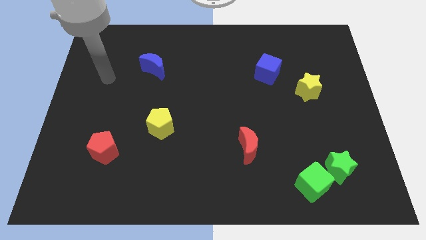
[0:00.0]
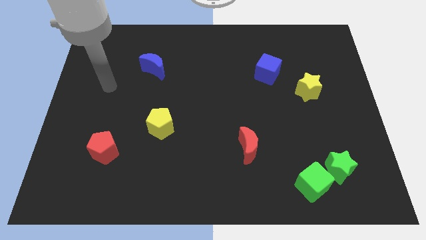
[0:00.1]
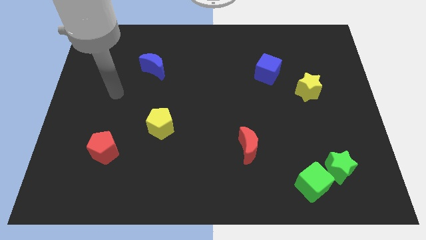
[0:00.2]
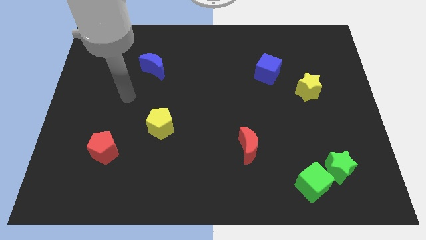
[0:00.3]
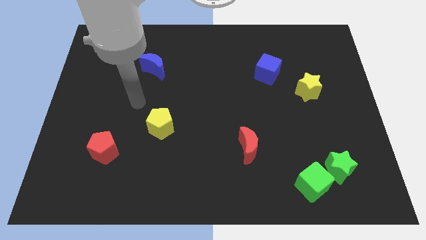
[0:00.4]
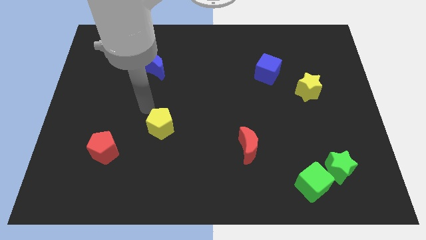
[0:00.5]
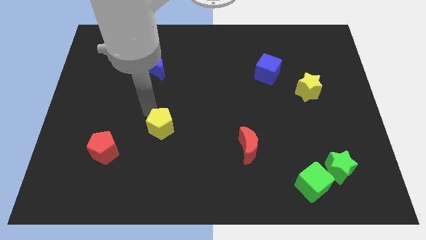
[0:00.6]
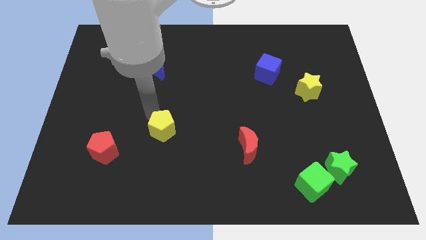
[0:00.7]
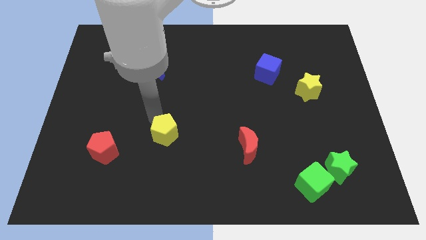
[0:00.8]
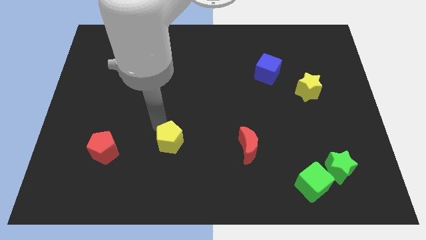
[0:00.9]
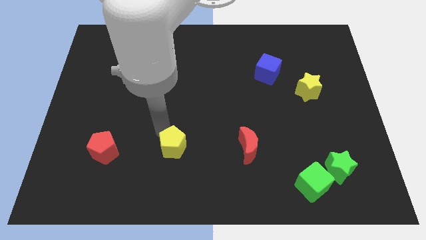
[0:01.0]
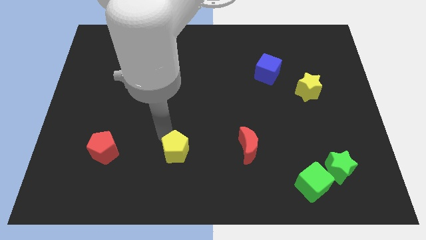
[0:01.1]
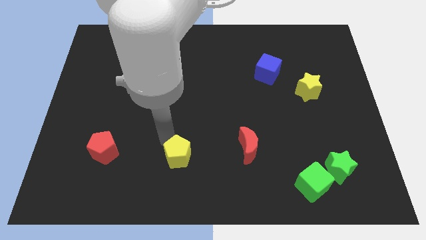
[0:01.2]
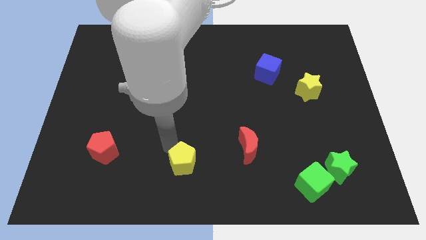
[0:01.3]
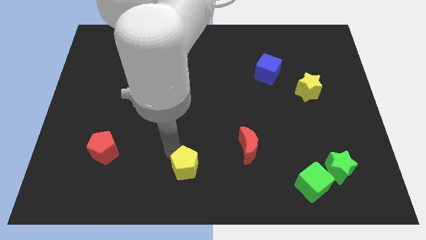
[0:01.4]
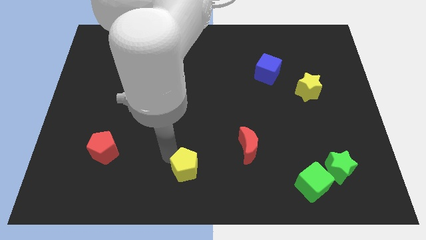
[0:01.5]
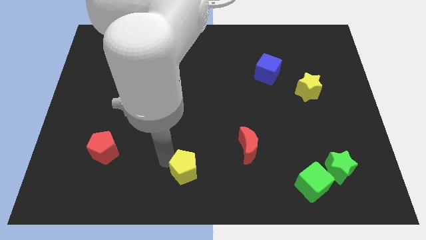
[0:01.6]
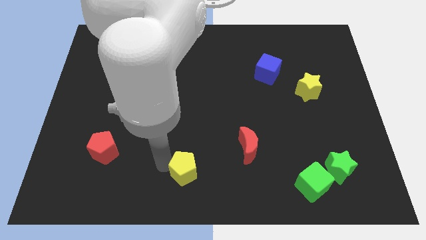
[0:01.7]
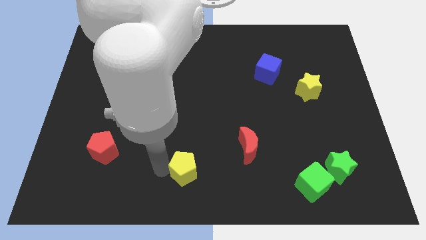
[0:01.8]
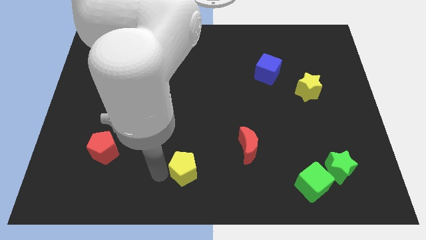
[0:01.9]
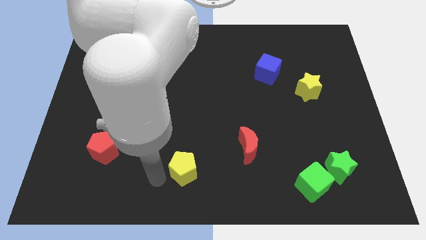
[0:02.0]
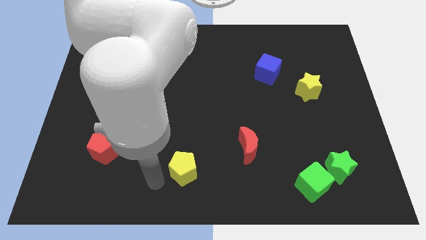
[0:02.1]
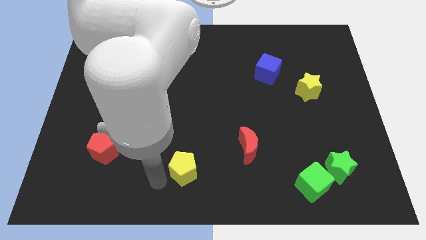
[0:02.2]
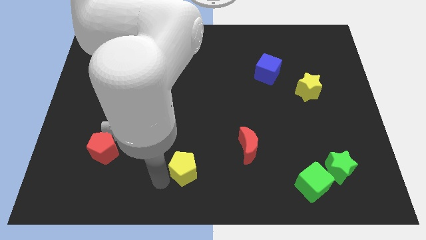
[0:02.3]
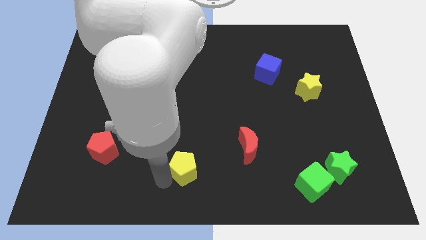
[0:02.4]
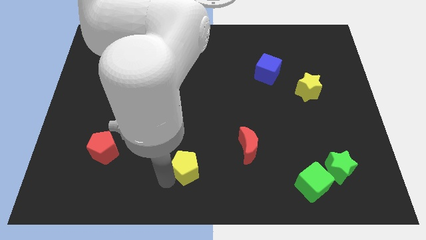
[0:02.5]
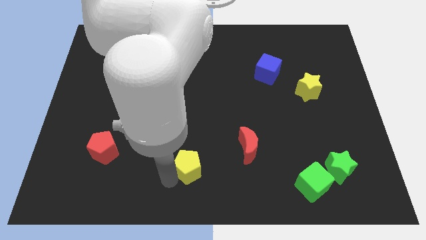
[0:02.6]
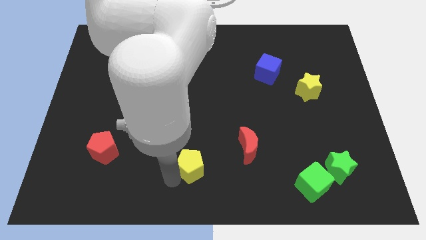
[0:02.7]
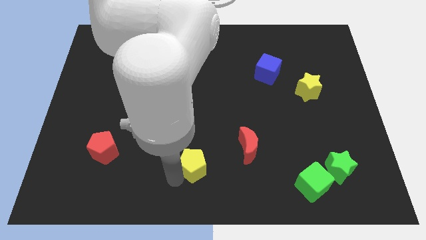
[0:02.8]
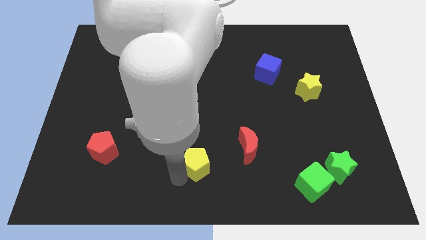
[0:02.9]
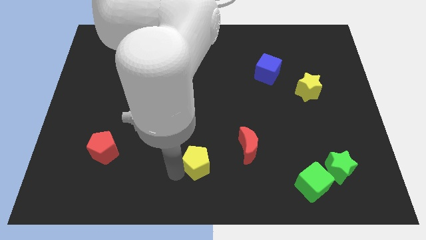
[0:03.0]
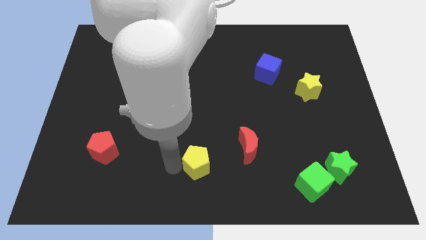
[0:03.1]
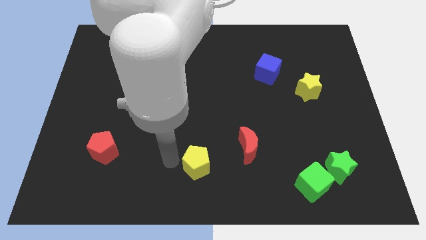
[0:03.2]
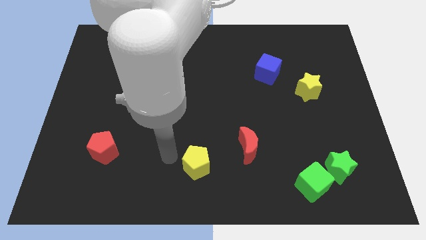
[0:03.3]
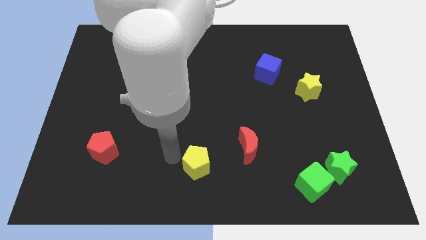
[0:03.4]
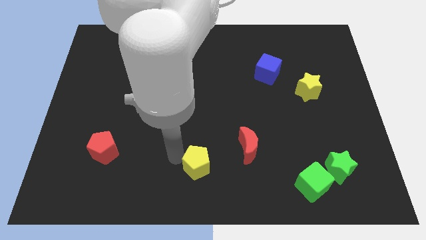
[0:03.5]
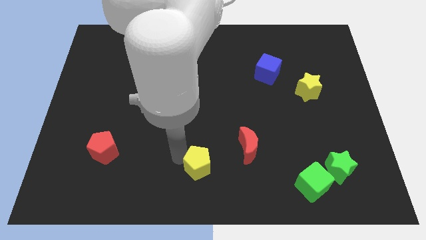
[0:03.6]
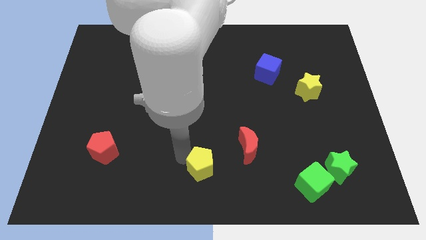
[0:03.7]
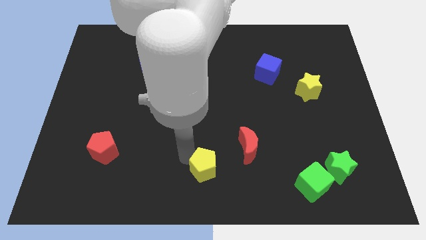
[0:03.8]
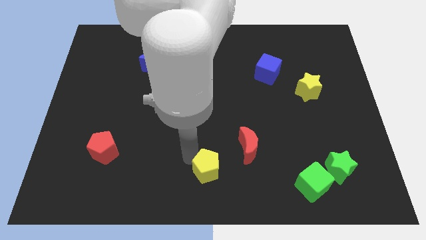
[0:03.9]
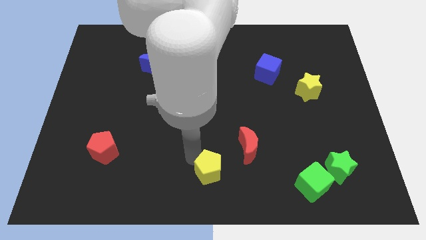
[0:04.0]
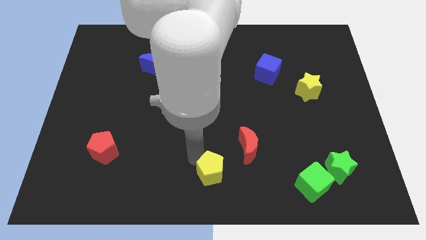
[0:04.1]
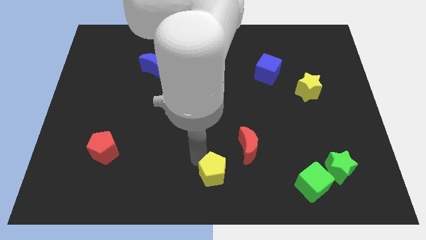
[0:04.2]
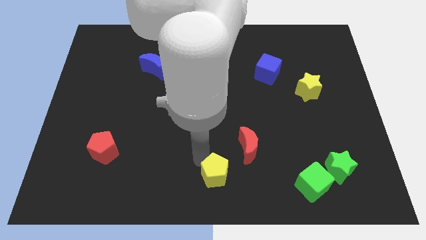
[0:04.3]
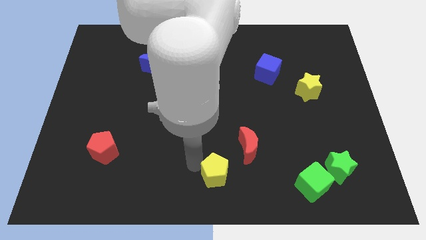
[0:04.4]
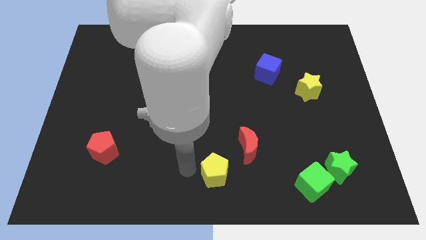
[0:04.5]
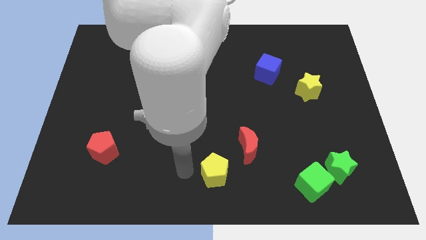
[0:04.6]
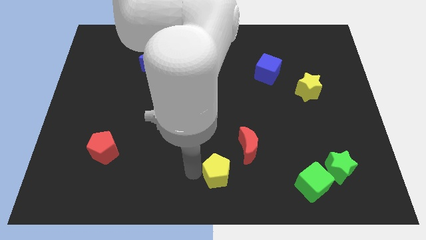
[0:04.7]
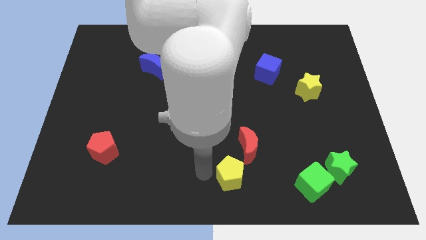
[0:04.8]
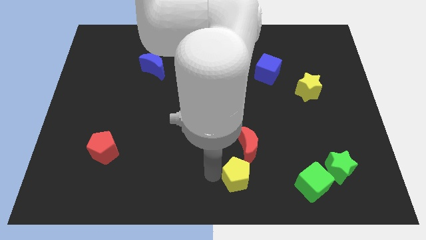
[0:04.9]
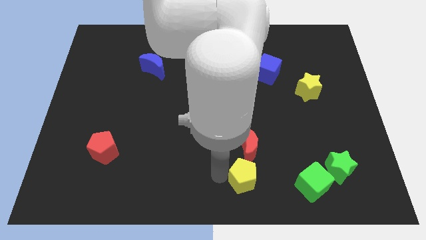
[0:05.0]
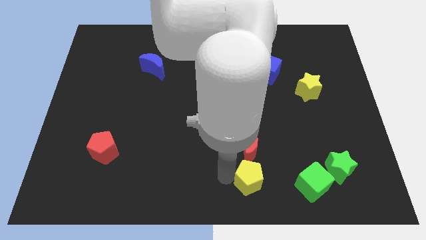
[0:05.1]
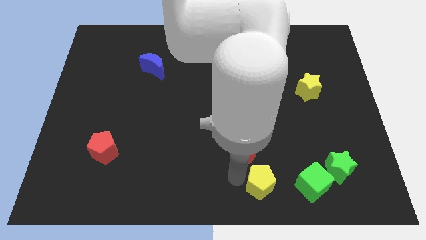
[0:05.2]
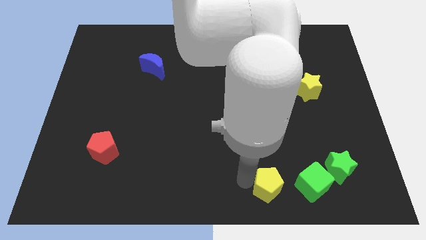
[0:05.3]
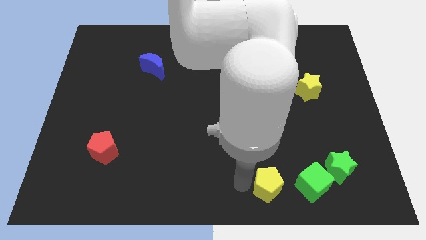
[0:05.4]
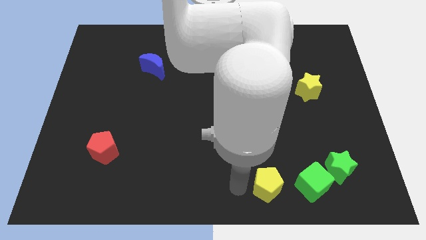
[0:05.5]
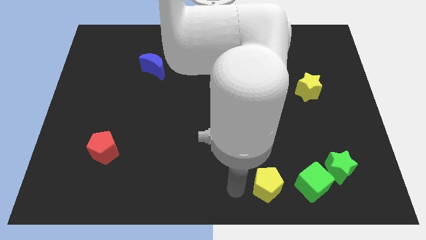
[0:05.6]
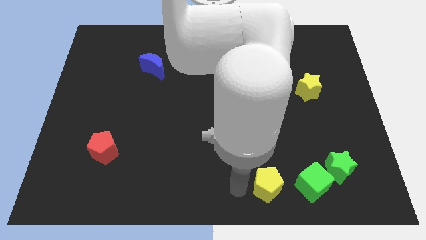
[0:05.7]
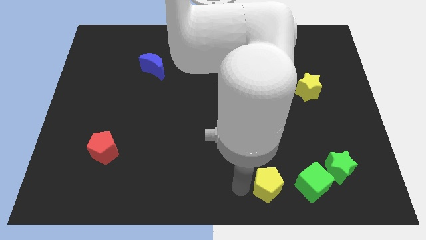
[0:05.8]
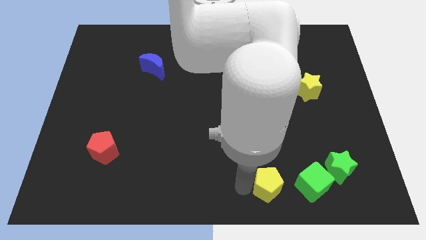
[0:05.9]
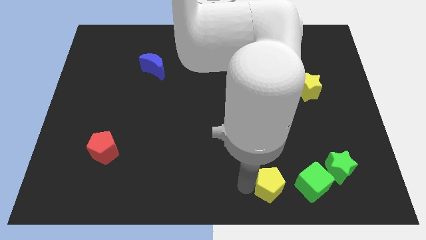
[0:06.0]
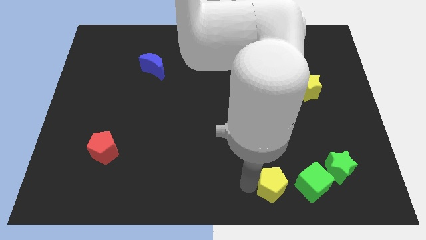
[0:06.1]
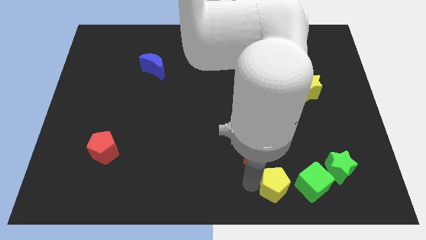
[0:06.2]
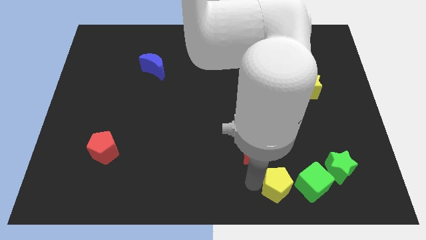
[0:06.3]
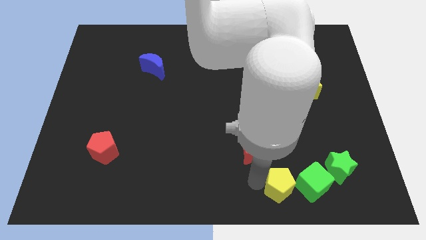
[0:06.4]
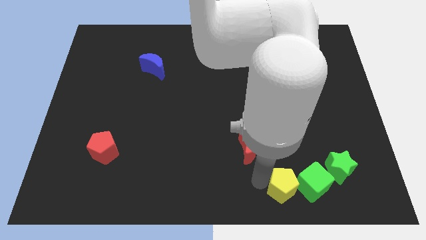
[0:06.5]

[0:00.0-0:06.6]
put the yellow pentagon to the green cube

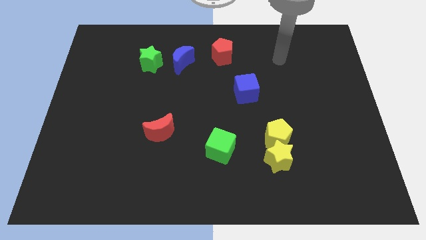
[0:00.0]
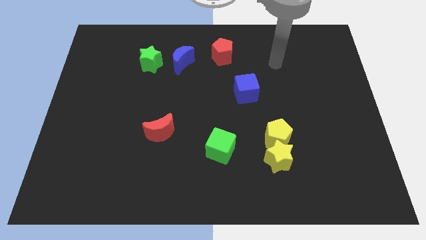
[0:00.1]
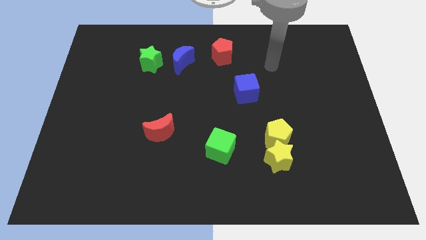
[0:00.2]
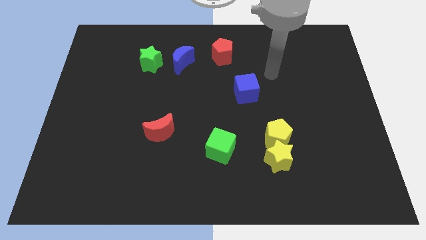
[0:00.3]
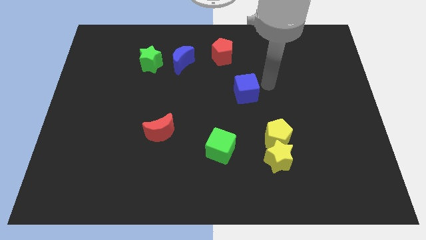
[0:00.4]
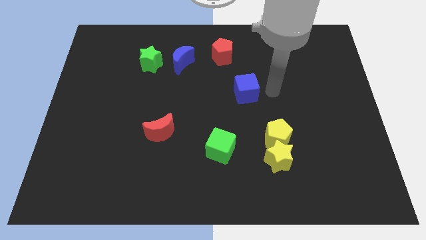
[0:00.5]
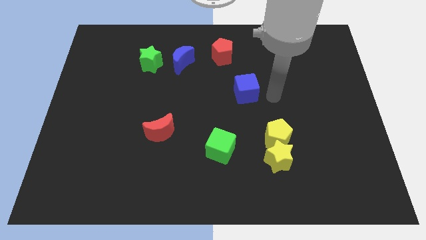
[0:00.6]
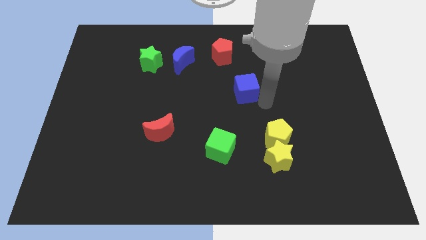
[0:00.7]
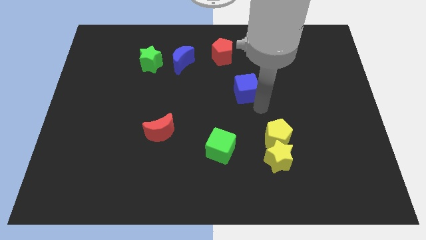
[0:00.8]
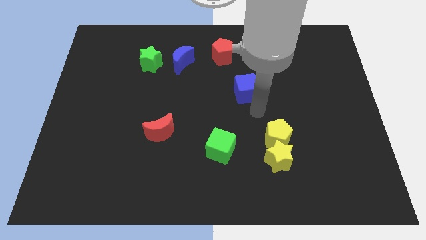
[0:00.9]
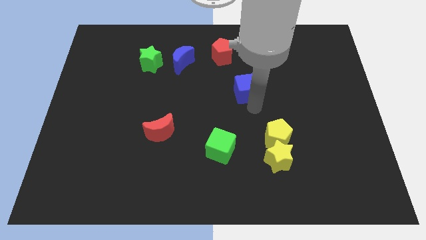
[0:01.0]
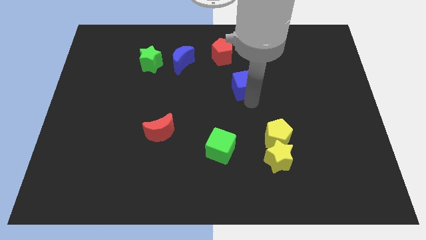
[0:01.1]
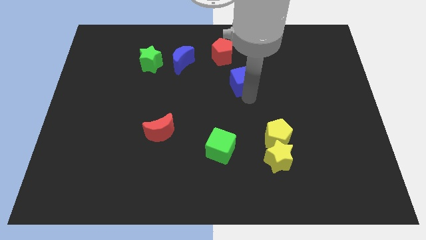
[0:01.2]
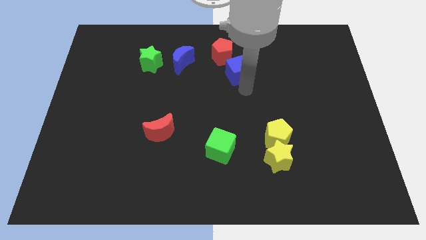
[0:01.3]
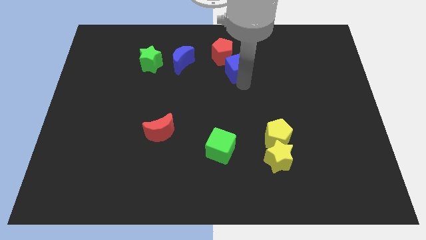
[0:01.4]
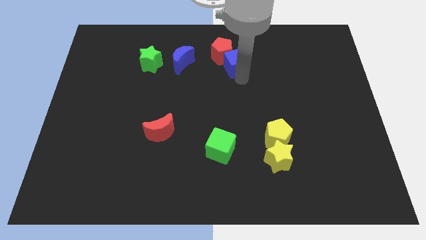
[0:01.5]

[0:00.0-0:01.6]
move the blue cube close to the red pentagon
